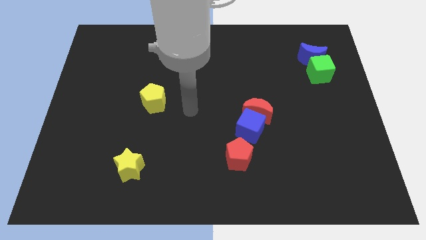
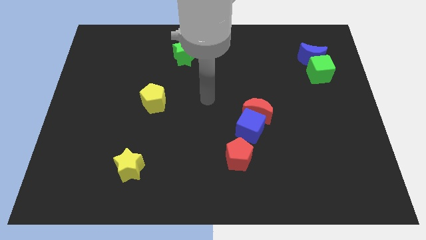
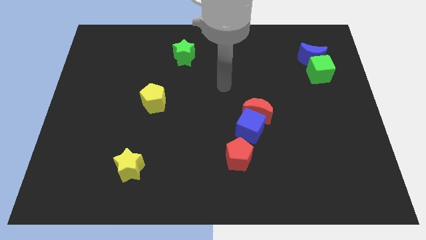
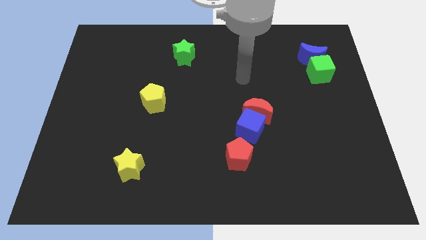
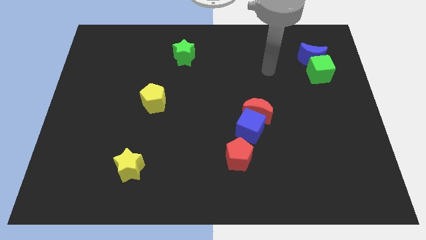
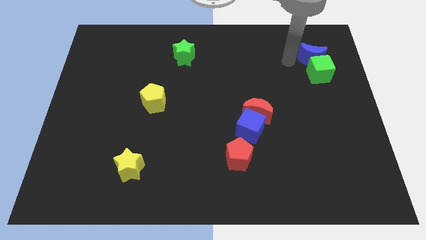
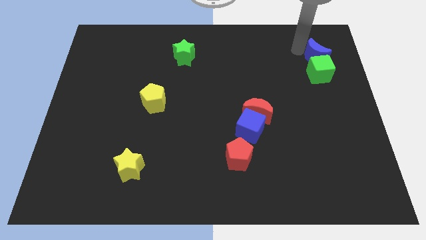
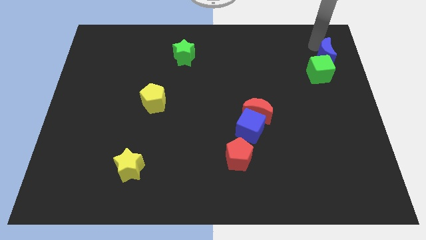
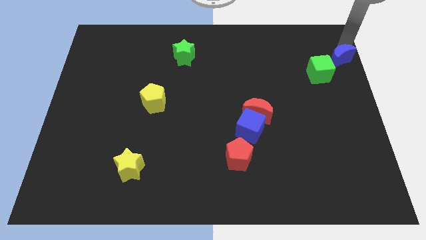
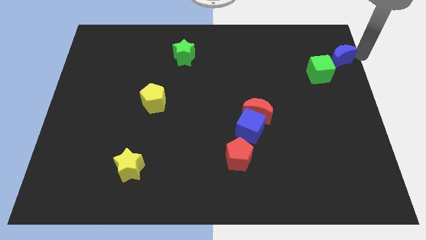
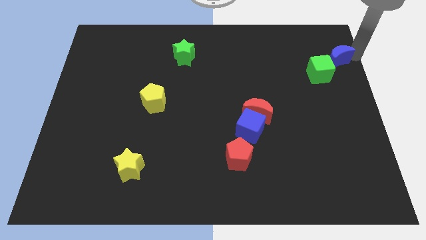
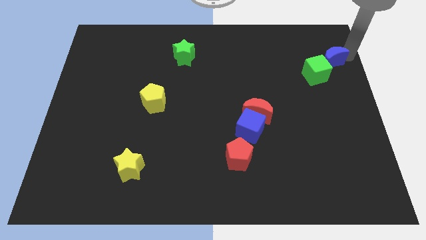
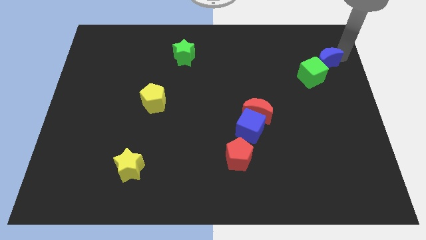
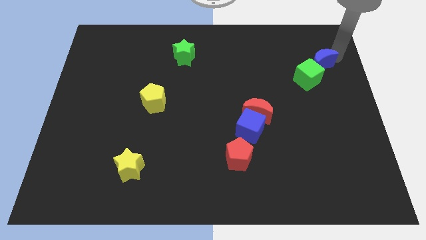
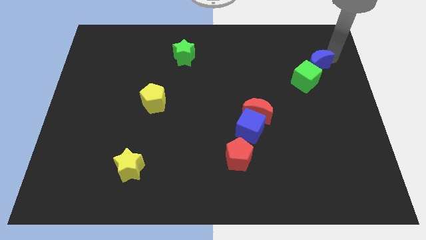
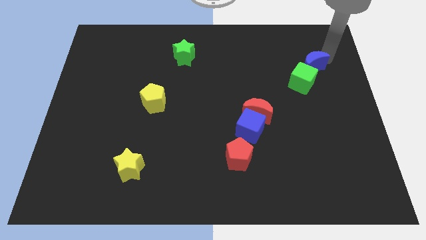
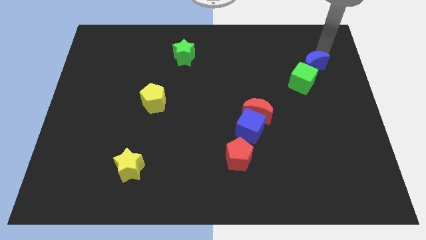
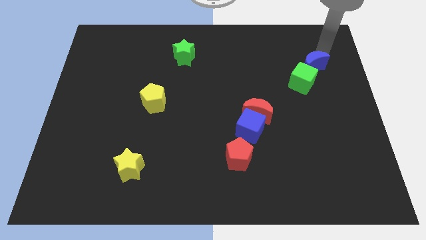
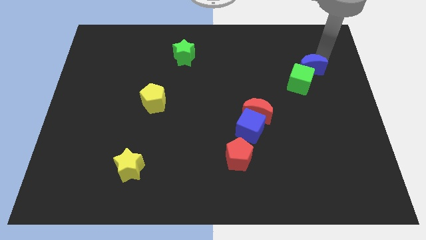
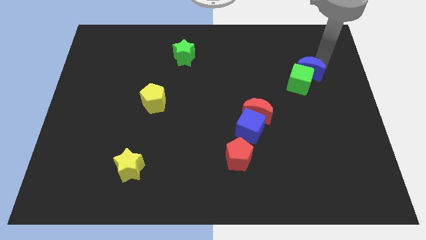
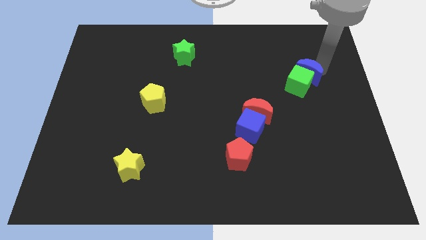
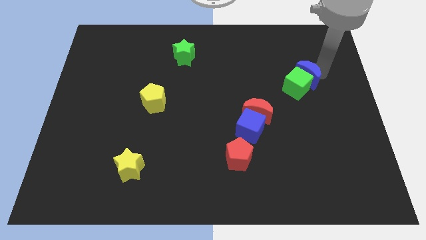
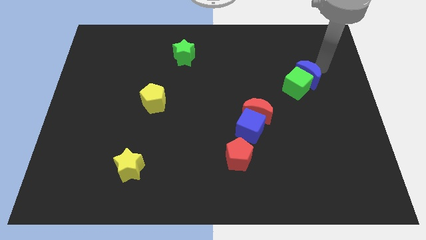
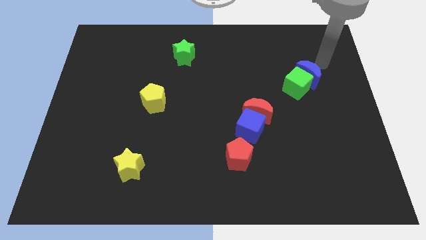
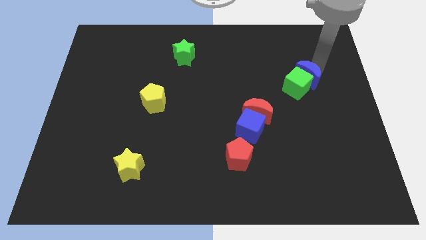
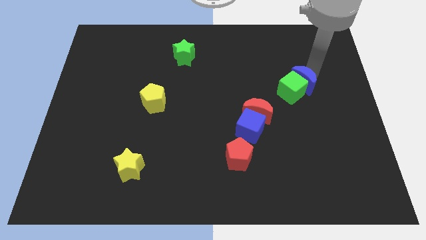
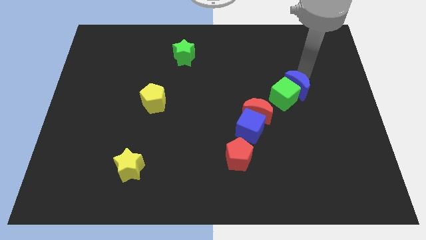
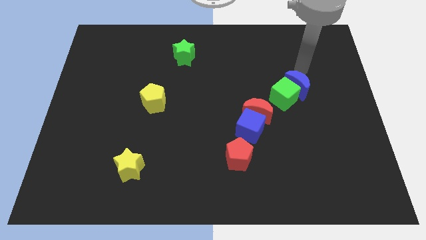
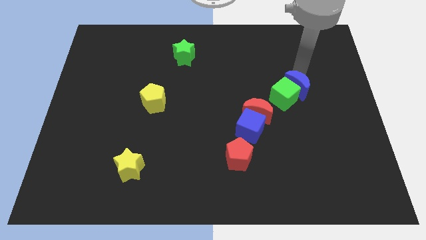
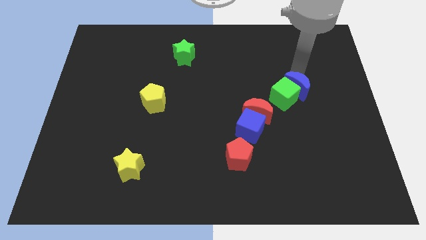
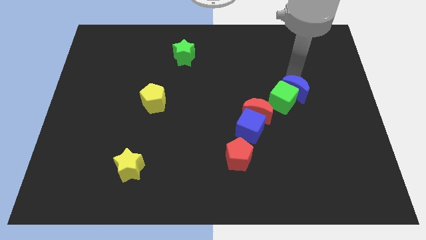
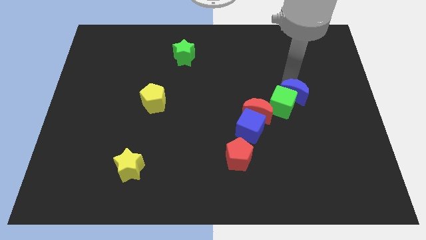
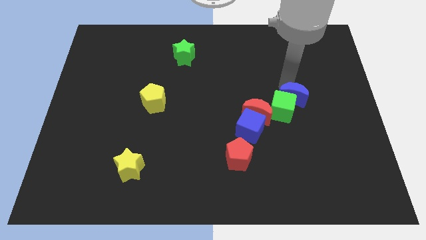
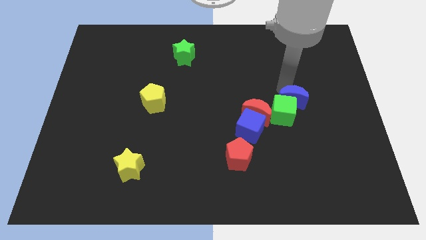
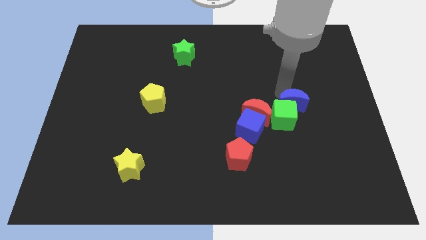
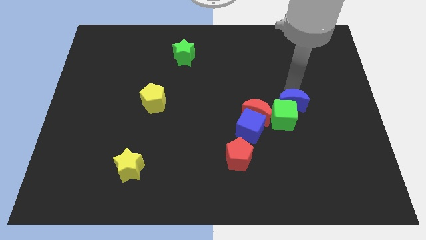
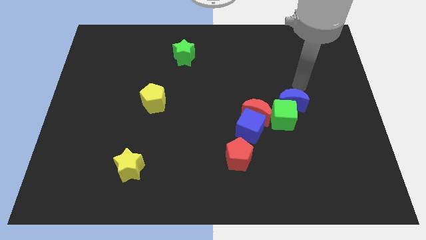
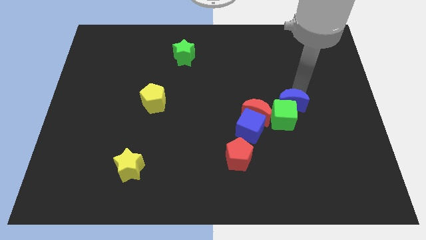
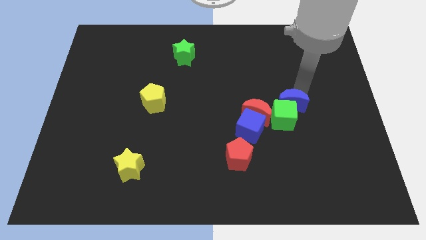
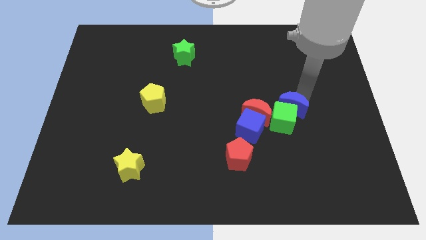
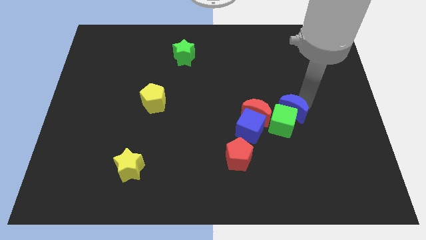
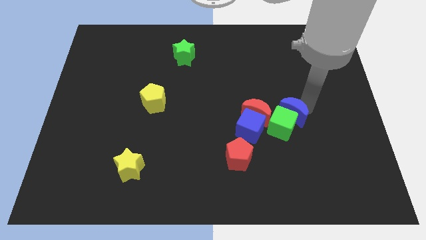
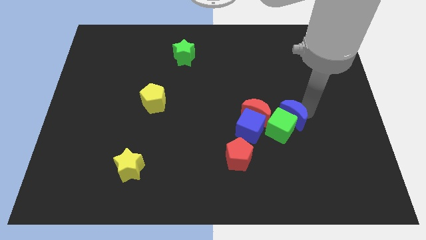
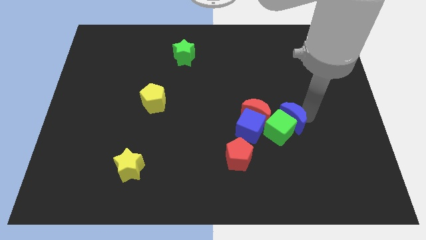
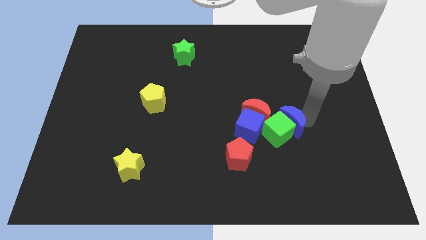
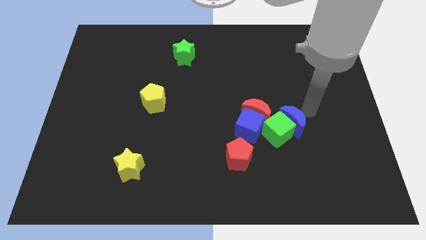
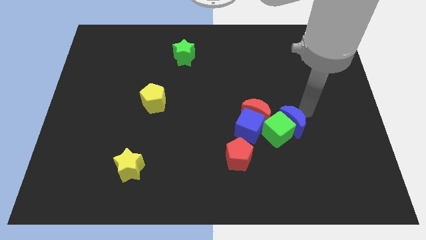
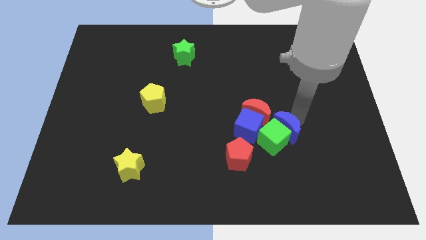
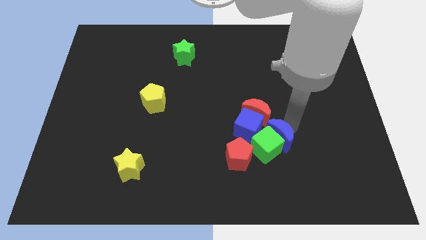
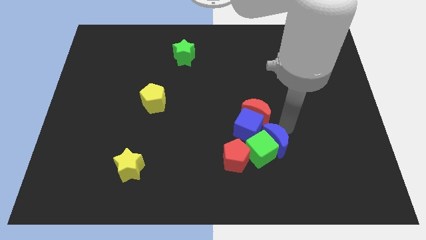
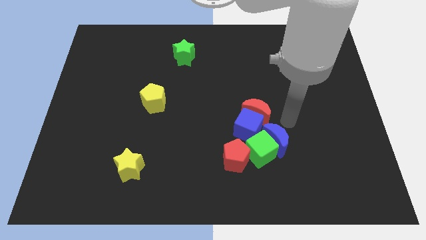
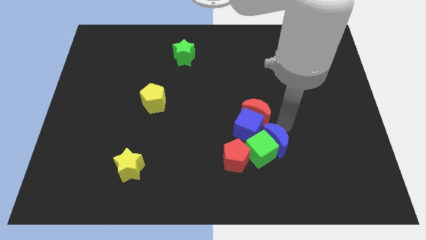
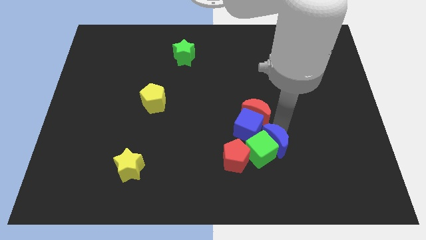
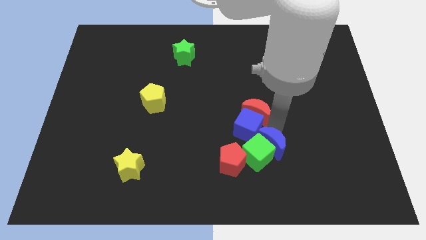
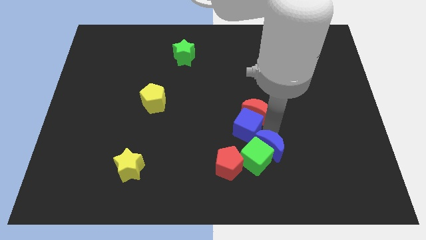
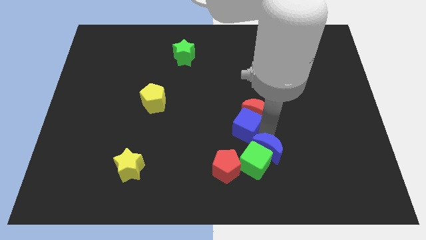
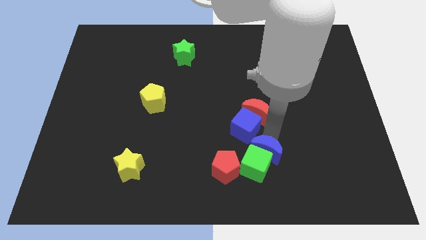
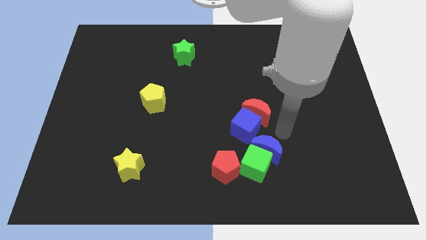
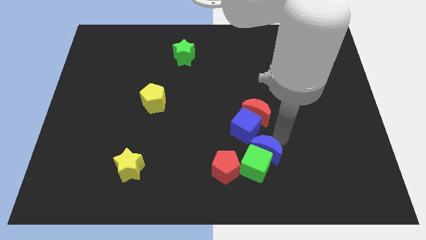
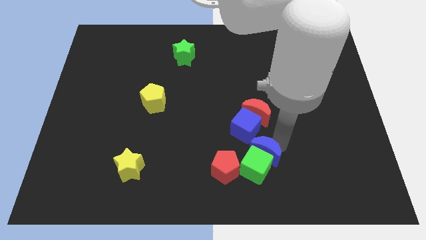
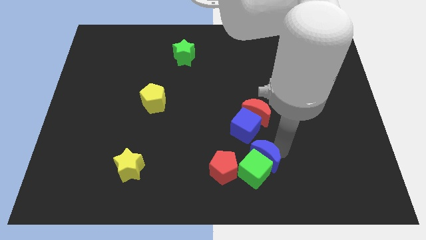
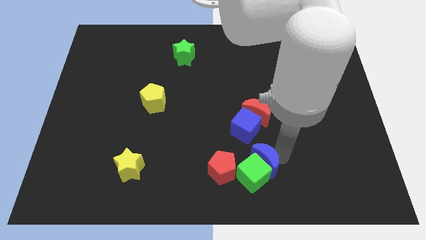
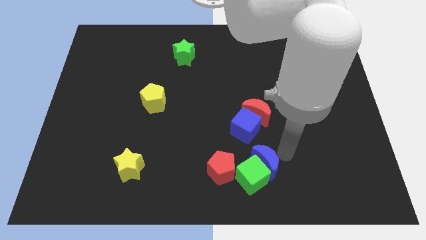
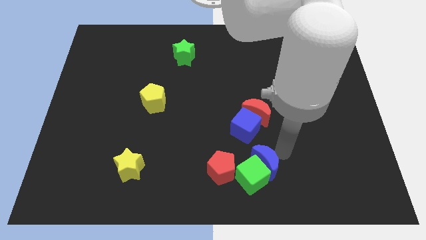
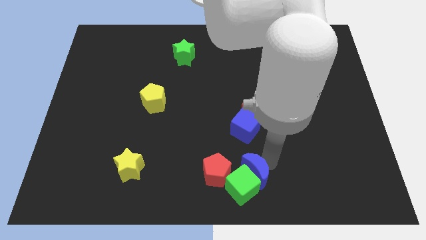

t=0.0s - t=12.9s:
push the blue moon to the bottom side
